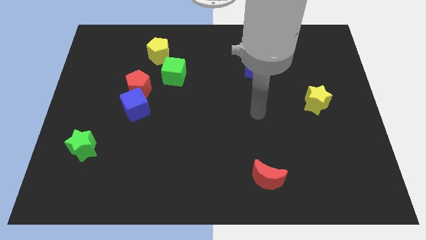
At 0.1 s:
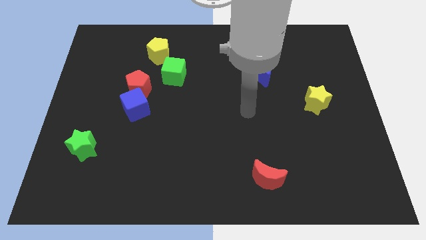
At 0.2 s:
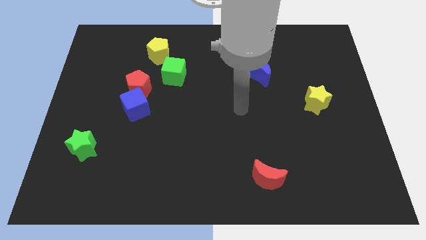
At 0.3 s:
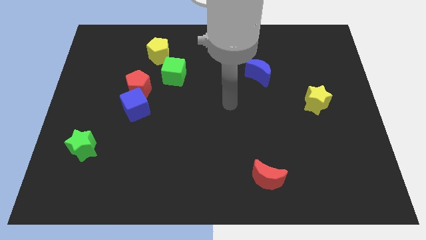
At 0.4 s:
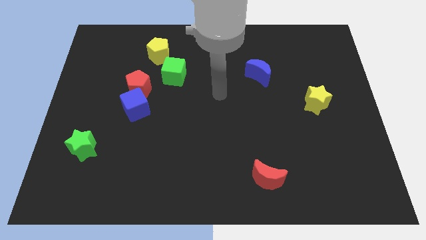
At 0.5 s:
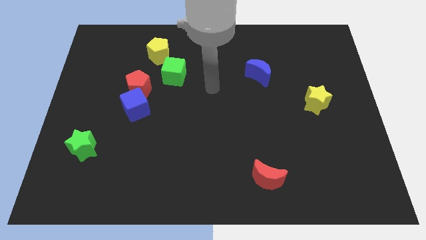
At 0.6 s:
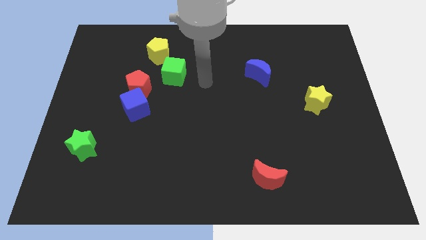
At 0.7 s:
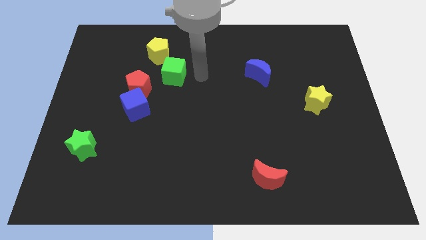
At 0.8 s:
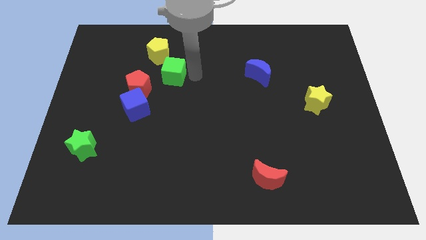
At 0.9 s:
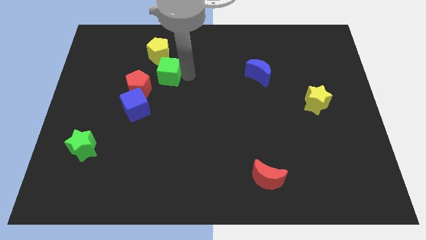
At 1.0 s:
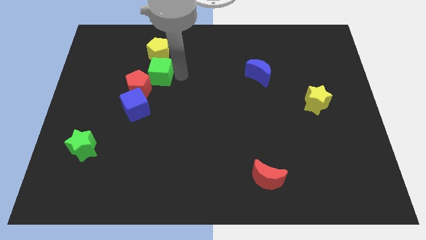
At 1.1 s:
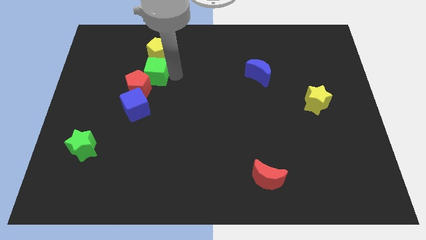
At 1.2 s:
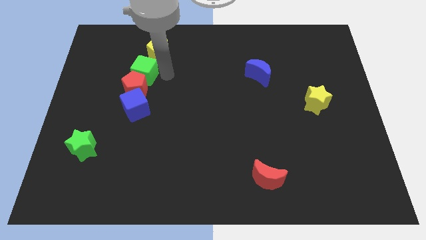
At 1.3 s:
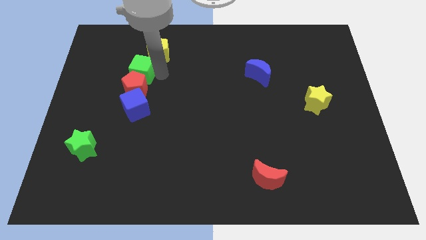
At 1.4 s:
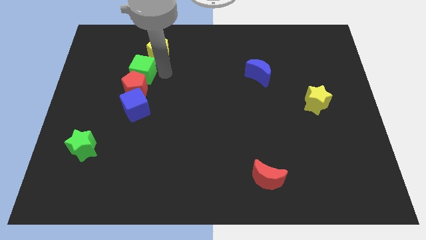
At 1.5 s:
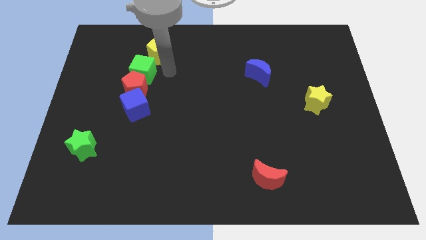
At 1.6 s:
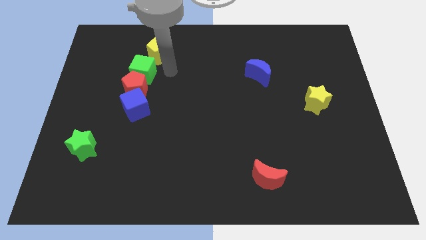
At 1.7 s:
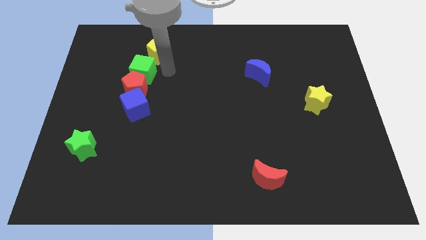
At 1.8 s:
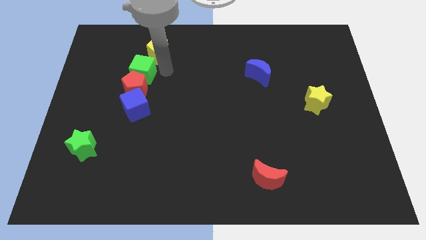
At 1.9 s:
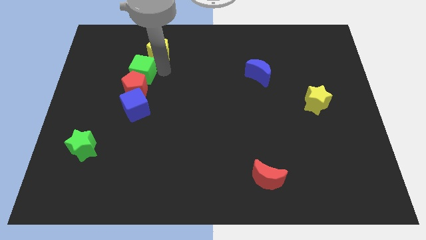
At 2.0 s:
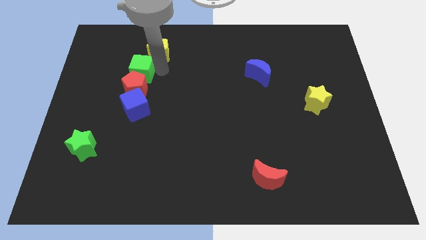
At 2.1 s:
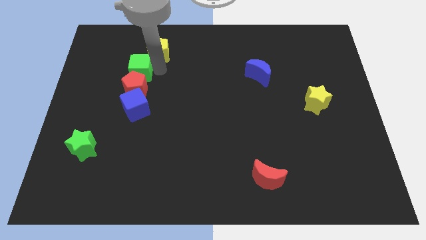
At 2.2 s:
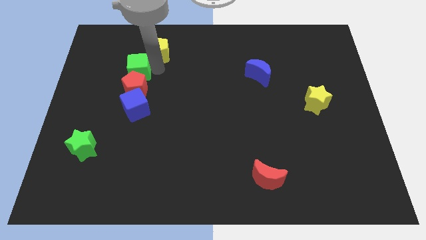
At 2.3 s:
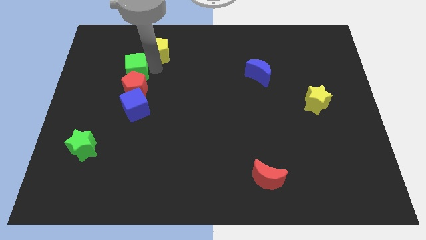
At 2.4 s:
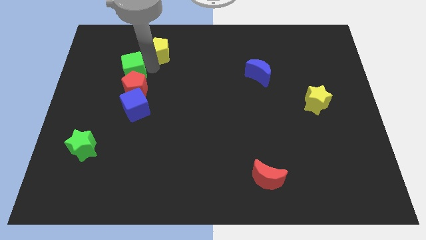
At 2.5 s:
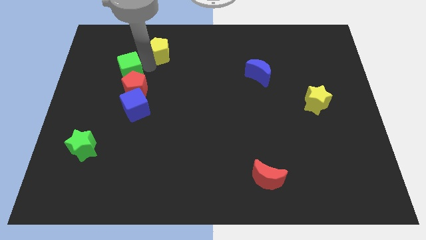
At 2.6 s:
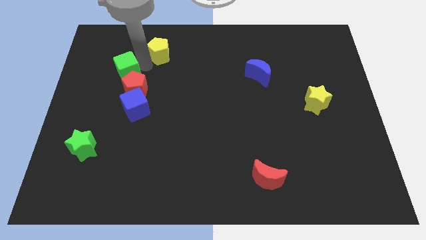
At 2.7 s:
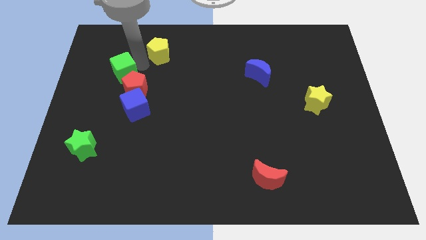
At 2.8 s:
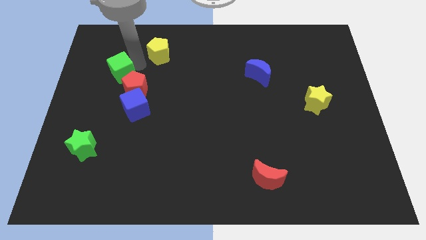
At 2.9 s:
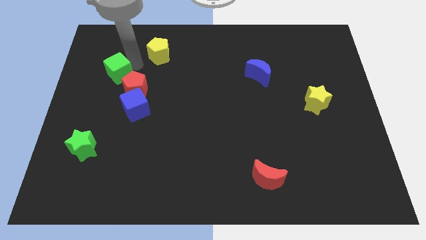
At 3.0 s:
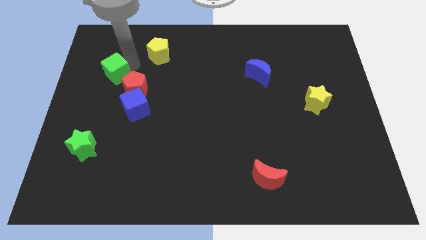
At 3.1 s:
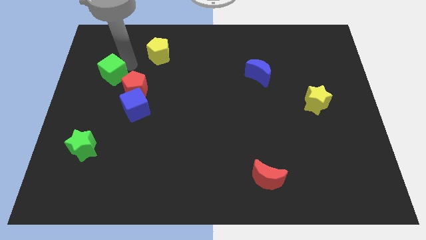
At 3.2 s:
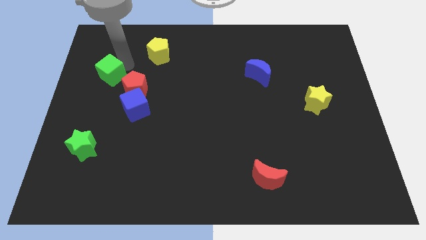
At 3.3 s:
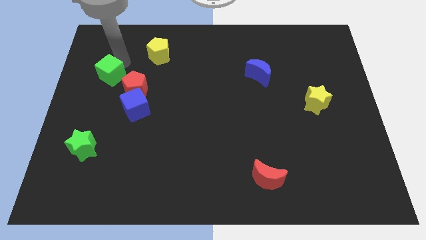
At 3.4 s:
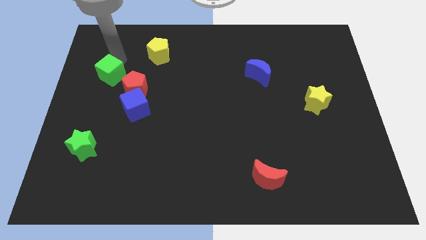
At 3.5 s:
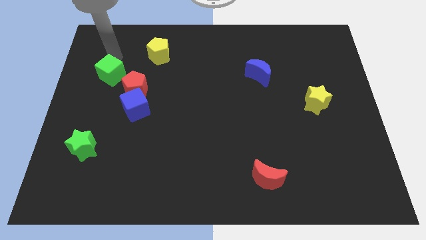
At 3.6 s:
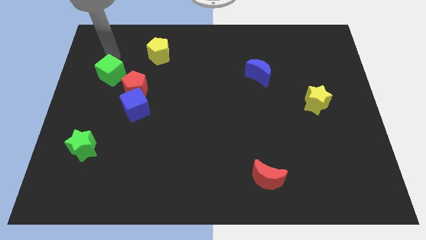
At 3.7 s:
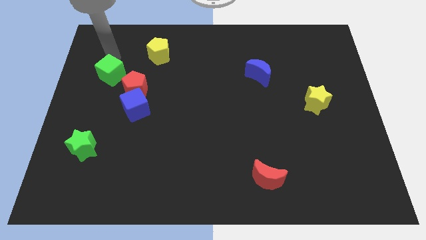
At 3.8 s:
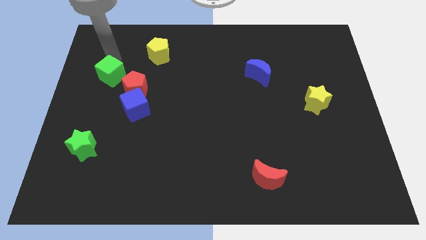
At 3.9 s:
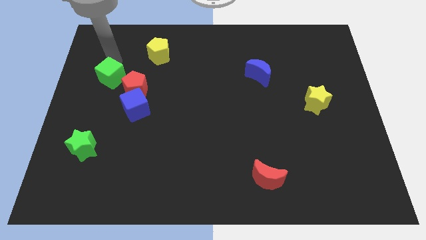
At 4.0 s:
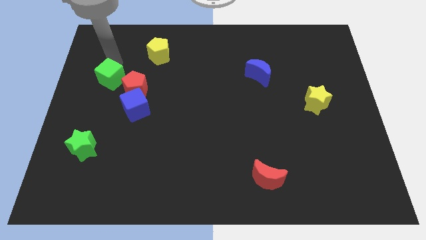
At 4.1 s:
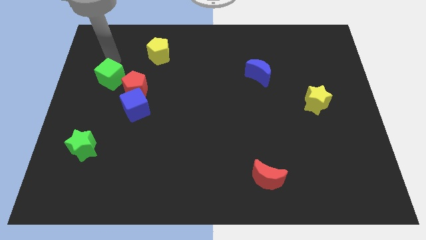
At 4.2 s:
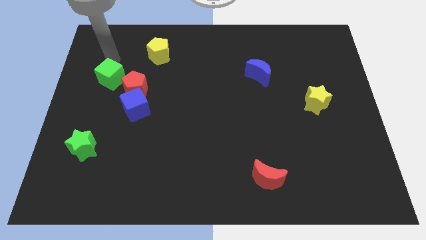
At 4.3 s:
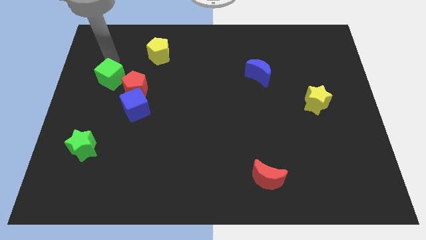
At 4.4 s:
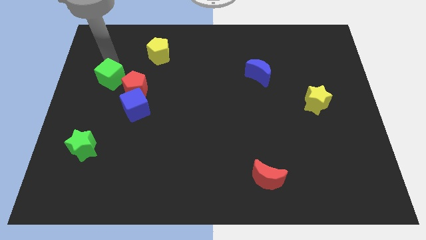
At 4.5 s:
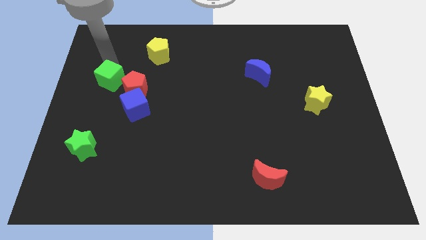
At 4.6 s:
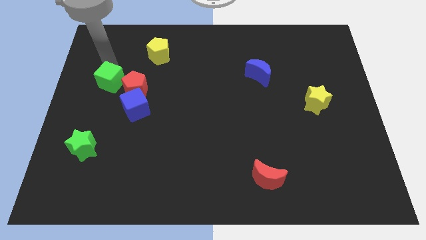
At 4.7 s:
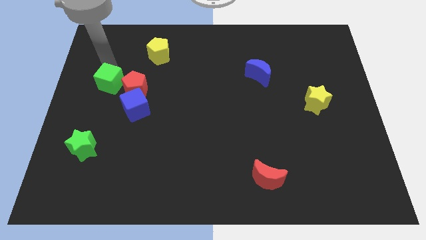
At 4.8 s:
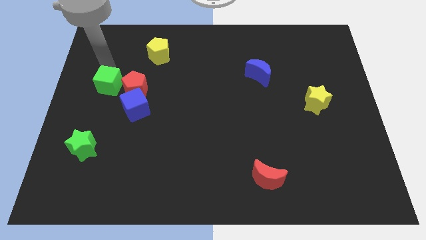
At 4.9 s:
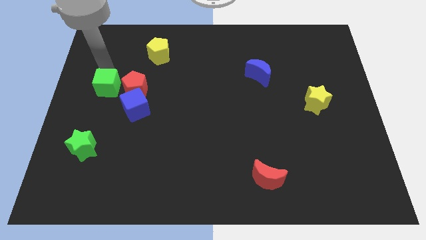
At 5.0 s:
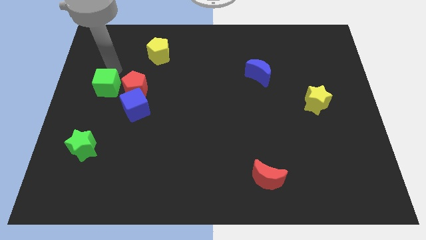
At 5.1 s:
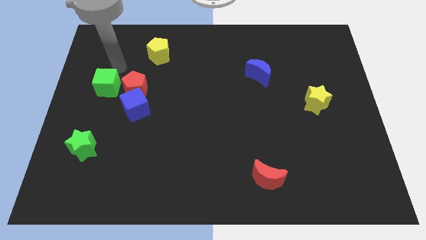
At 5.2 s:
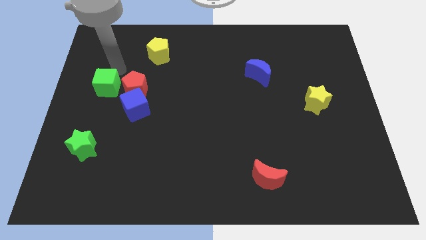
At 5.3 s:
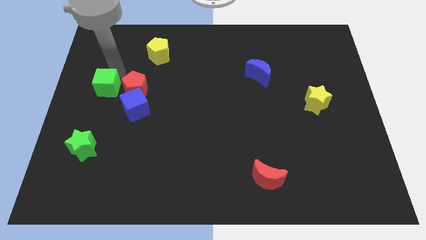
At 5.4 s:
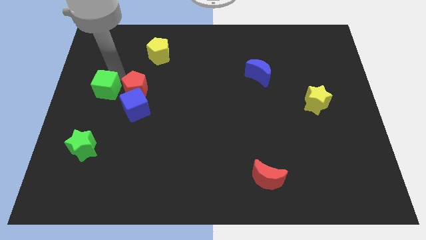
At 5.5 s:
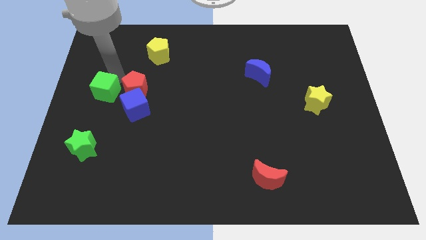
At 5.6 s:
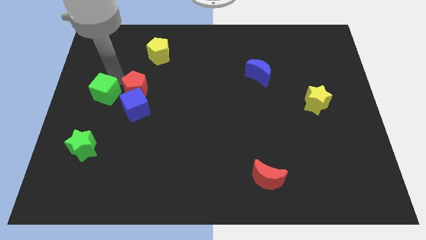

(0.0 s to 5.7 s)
put the green cube to the top of the green star

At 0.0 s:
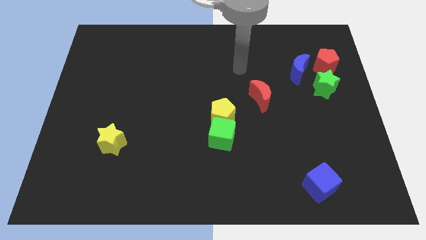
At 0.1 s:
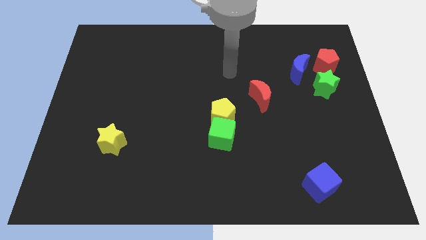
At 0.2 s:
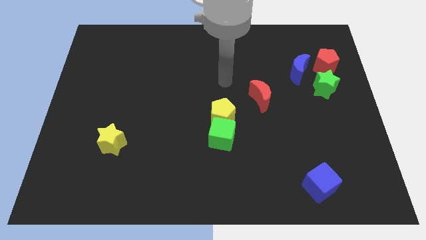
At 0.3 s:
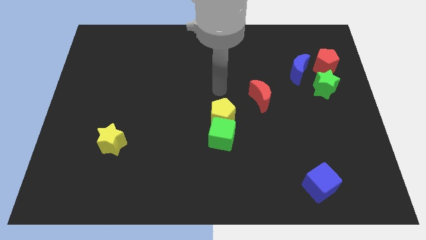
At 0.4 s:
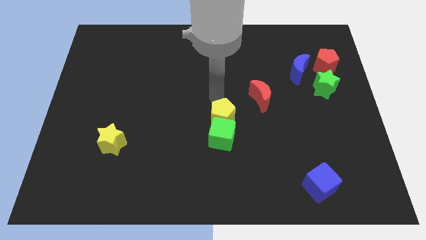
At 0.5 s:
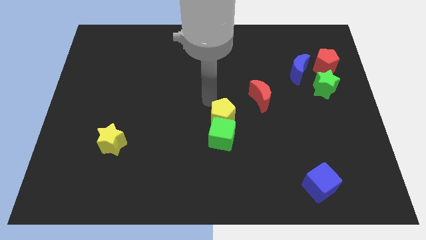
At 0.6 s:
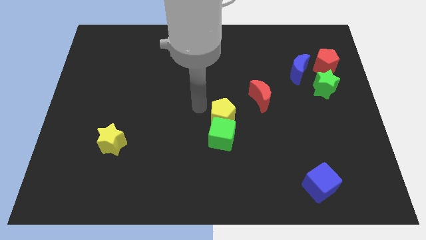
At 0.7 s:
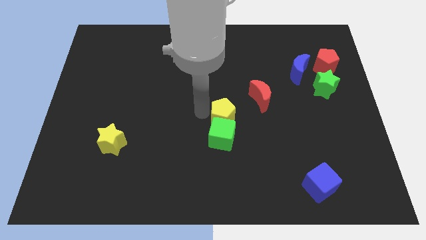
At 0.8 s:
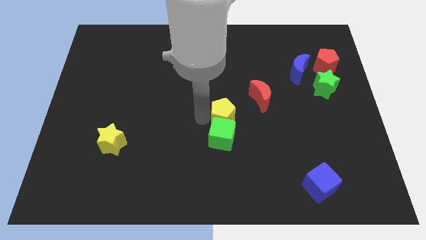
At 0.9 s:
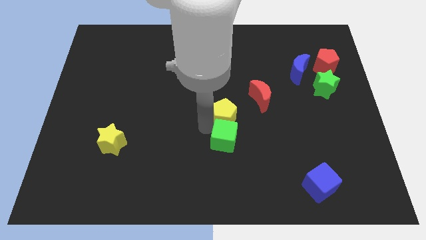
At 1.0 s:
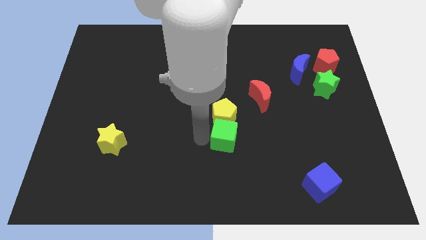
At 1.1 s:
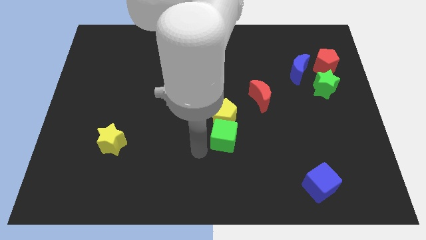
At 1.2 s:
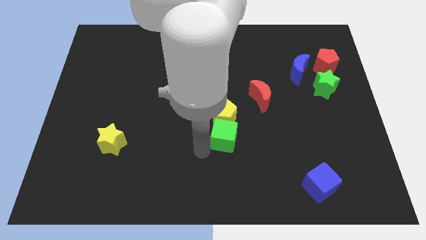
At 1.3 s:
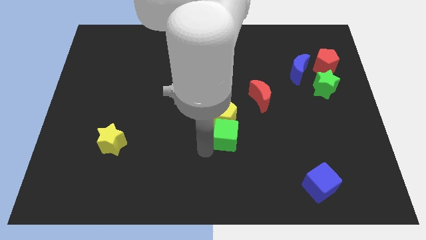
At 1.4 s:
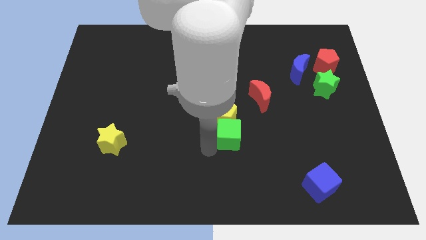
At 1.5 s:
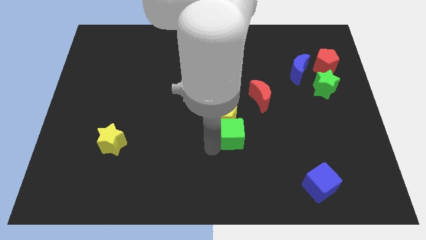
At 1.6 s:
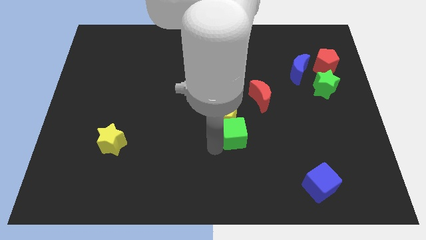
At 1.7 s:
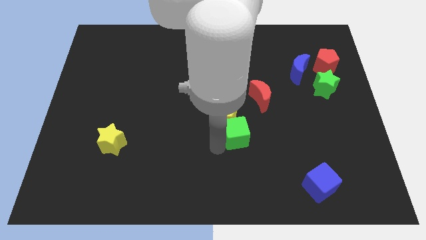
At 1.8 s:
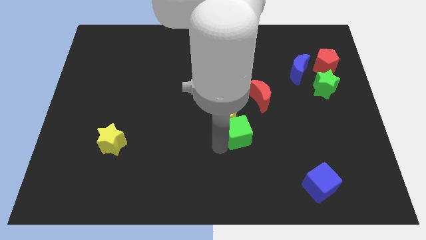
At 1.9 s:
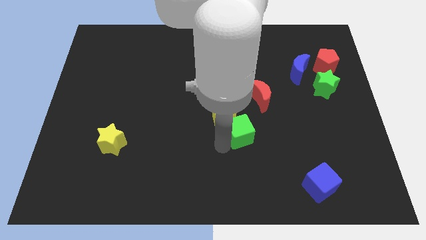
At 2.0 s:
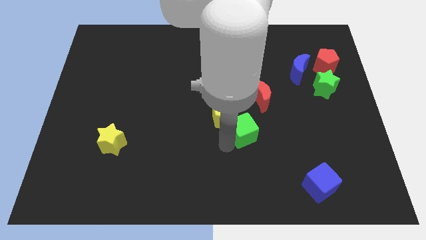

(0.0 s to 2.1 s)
move the green cube right of the yellow pentagon

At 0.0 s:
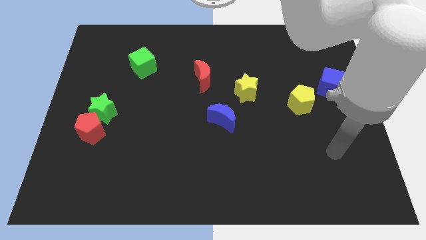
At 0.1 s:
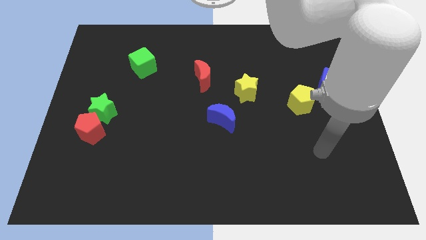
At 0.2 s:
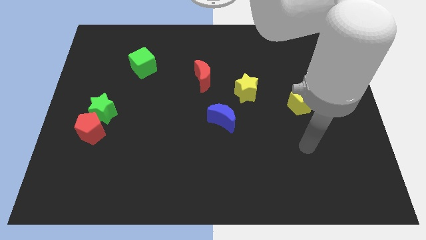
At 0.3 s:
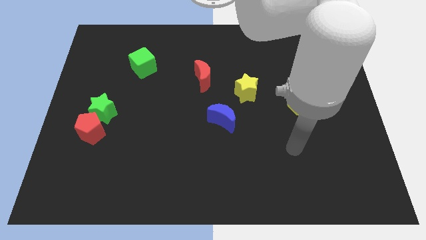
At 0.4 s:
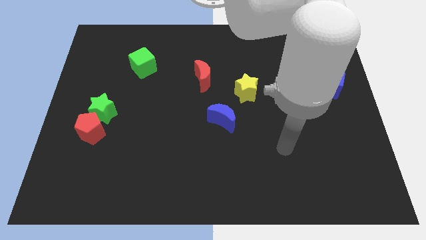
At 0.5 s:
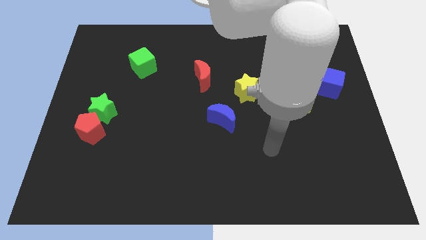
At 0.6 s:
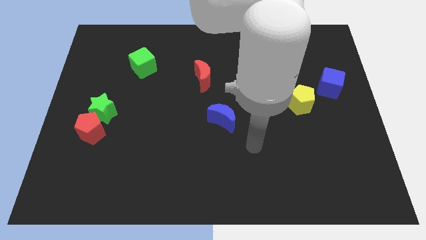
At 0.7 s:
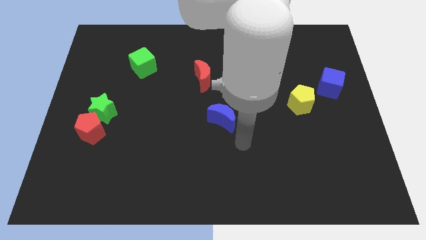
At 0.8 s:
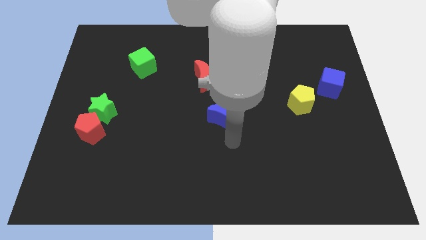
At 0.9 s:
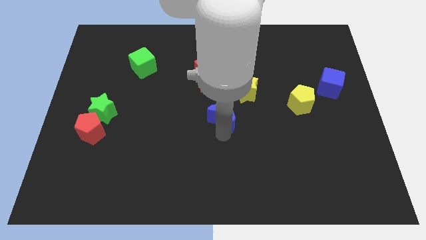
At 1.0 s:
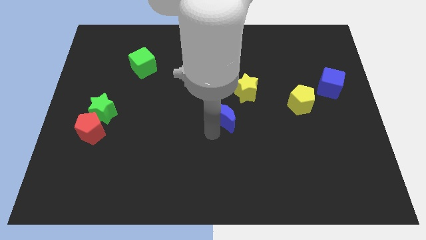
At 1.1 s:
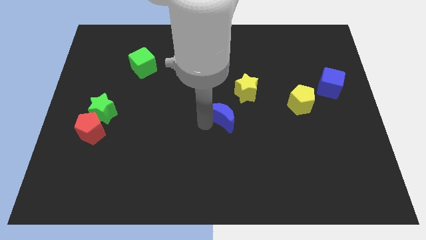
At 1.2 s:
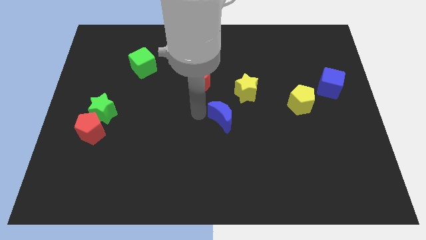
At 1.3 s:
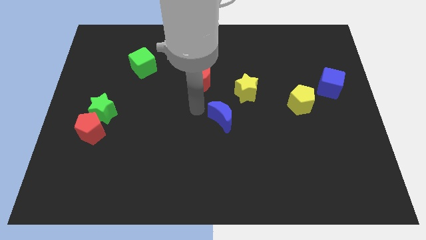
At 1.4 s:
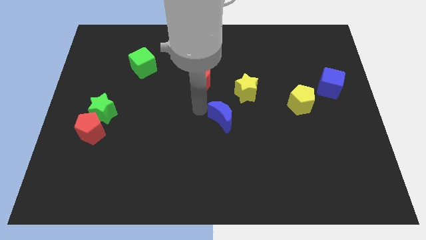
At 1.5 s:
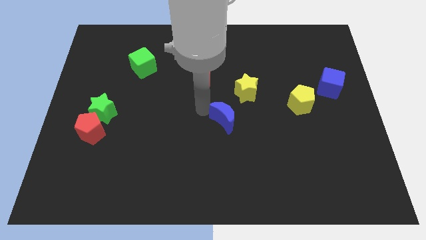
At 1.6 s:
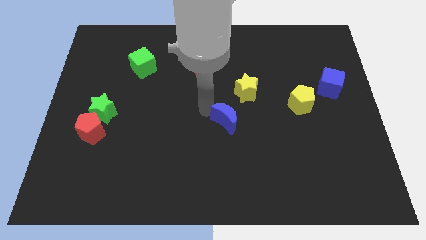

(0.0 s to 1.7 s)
push the blue moon to the bottom side of the yellow star
